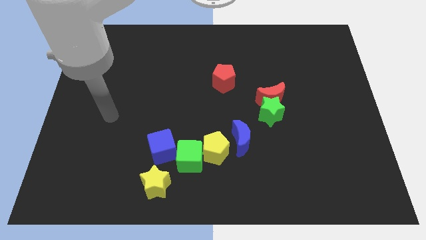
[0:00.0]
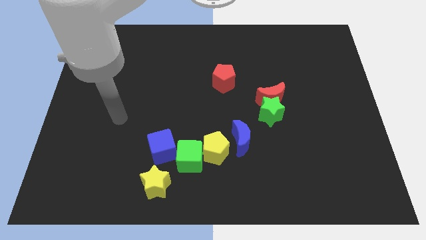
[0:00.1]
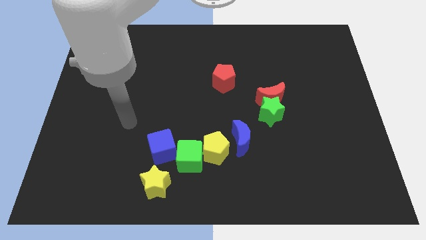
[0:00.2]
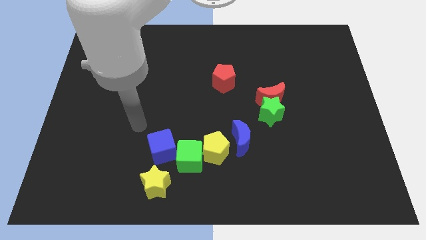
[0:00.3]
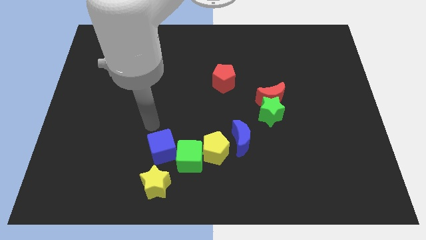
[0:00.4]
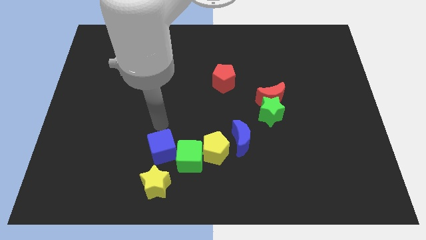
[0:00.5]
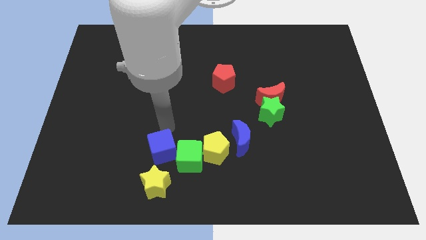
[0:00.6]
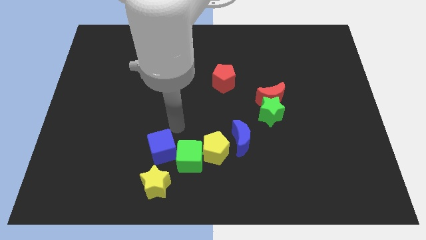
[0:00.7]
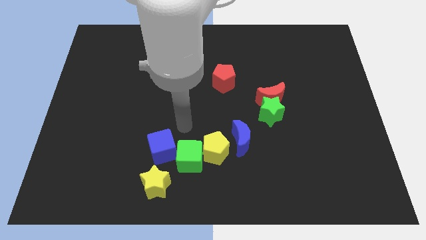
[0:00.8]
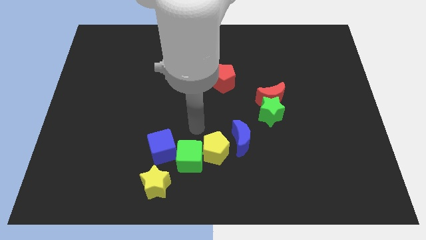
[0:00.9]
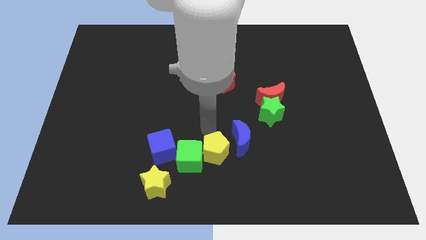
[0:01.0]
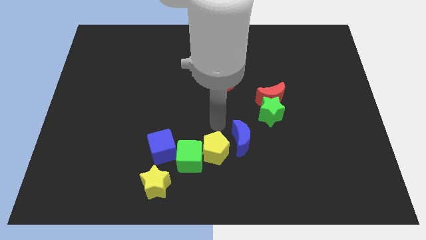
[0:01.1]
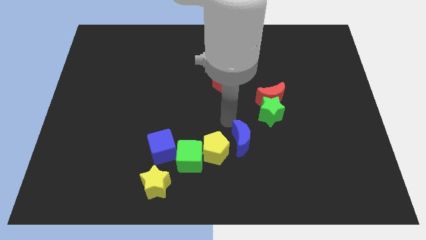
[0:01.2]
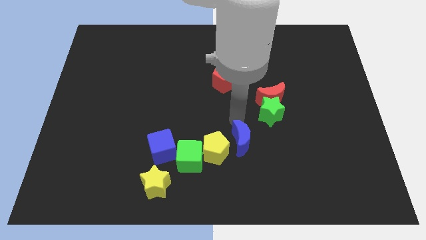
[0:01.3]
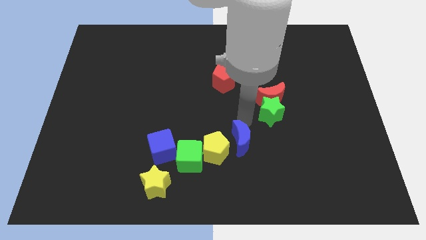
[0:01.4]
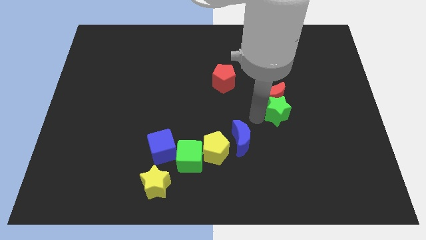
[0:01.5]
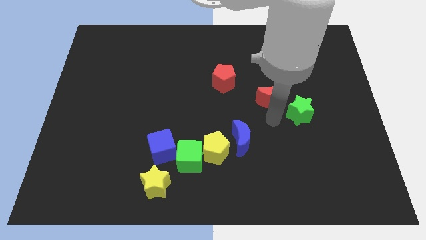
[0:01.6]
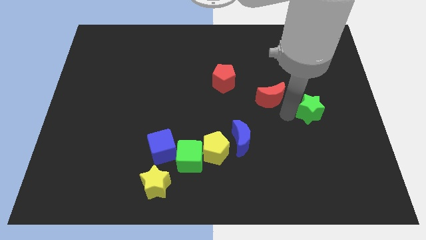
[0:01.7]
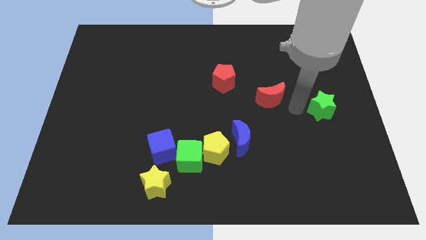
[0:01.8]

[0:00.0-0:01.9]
separate the red moon from the green star

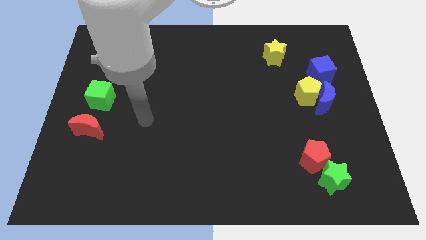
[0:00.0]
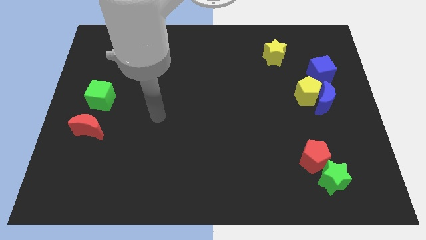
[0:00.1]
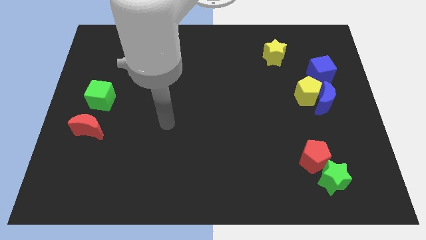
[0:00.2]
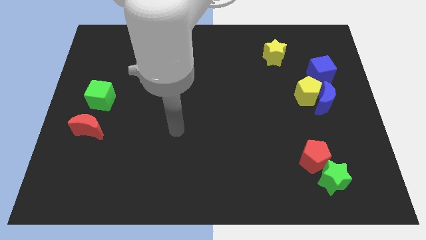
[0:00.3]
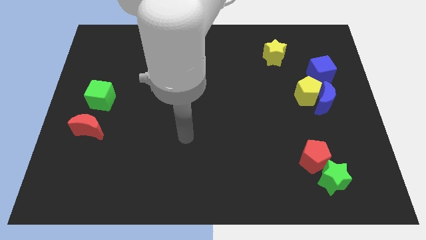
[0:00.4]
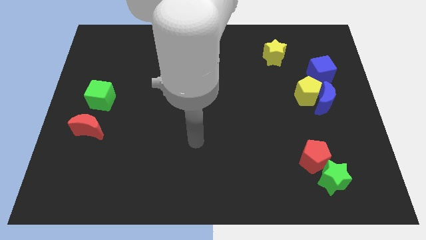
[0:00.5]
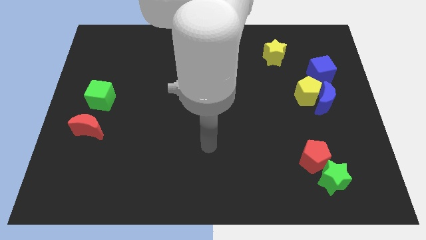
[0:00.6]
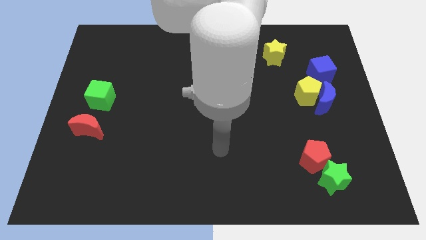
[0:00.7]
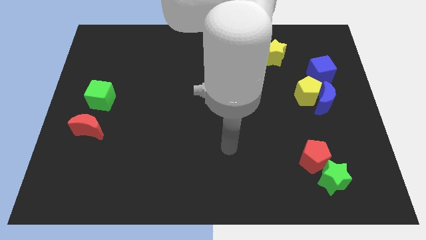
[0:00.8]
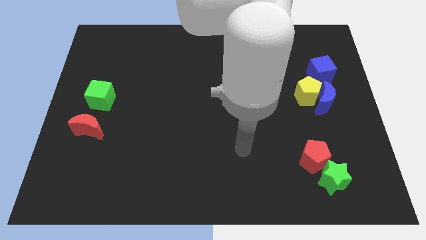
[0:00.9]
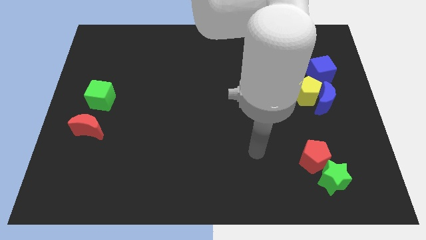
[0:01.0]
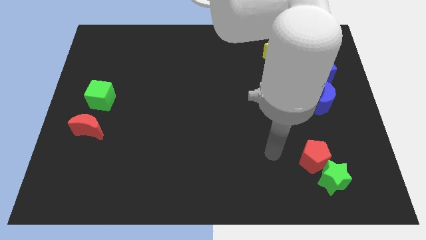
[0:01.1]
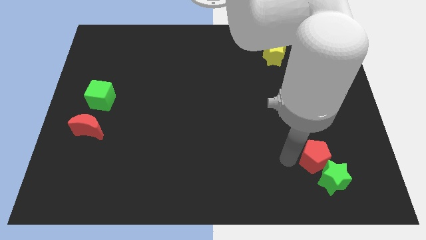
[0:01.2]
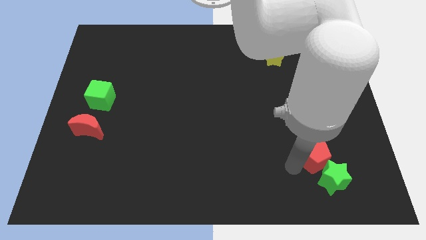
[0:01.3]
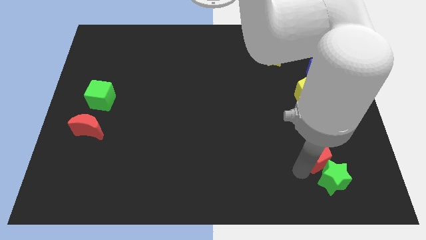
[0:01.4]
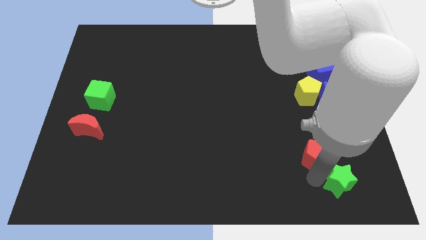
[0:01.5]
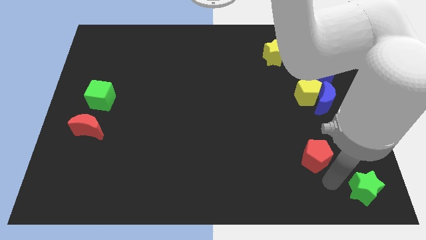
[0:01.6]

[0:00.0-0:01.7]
separate the red pentagon from the green star

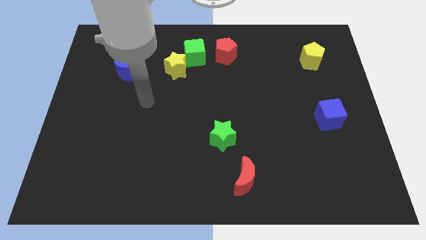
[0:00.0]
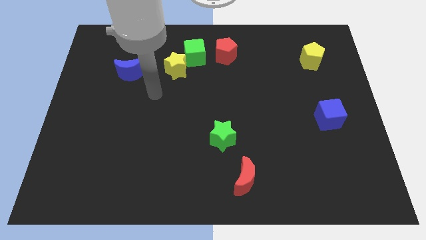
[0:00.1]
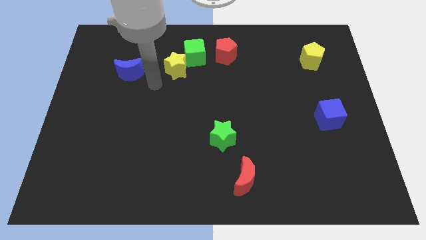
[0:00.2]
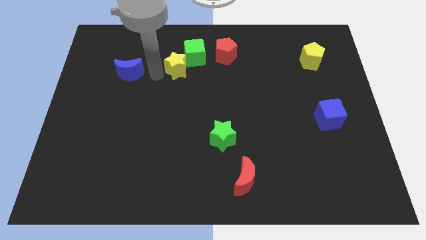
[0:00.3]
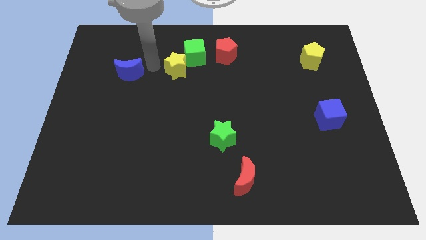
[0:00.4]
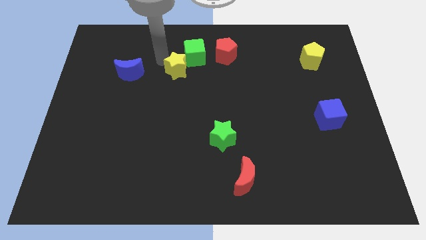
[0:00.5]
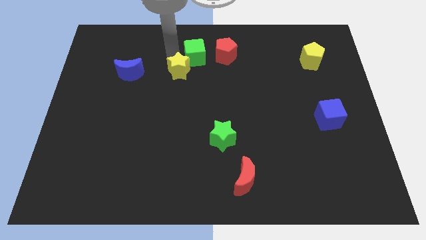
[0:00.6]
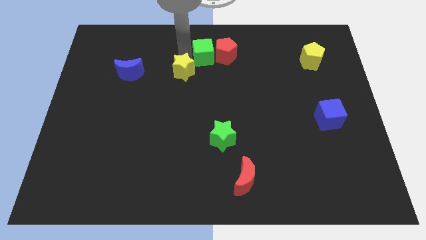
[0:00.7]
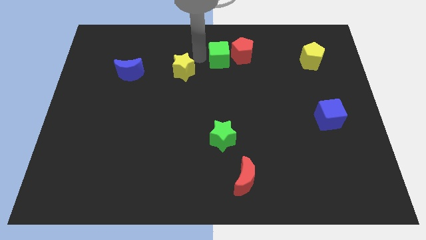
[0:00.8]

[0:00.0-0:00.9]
separate the yellow star from the green cube

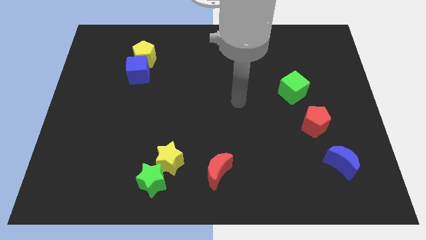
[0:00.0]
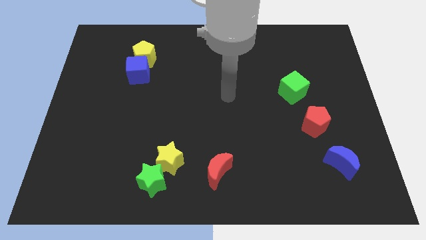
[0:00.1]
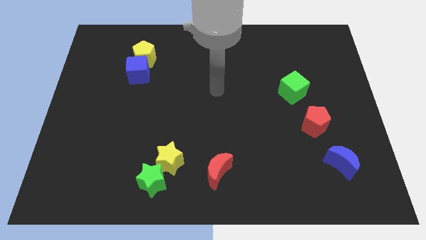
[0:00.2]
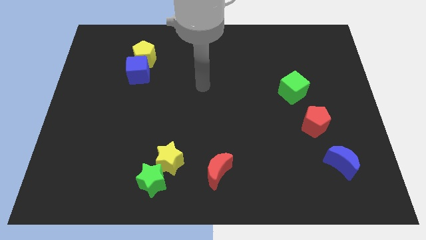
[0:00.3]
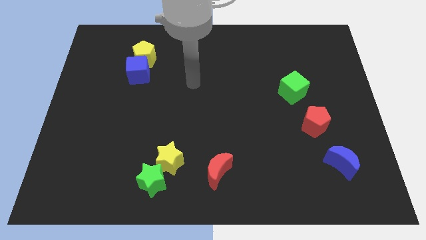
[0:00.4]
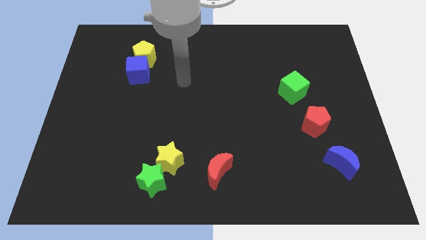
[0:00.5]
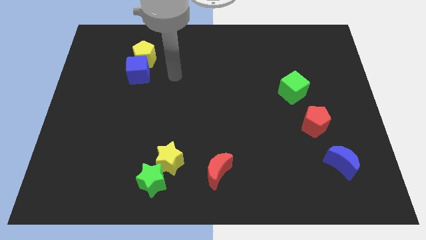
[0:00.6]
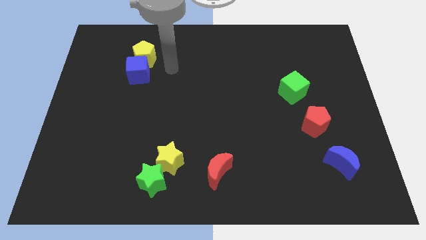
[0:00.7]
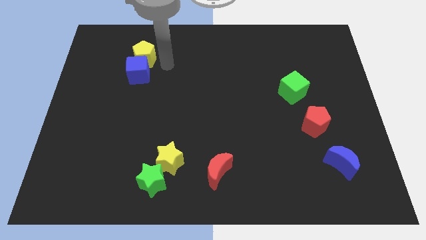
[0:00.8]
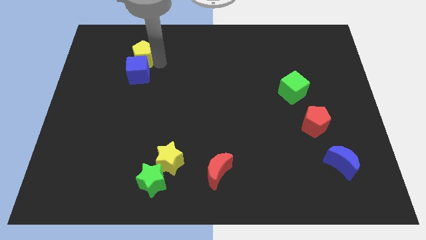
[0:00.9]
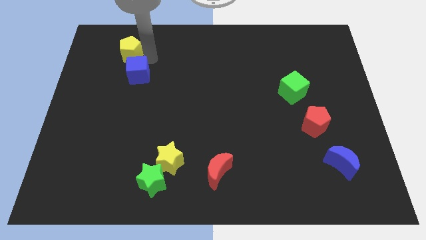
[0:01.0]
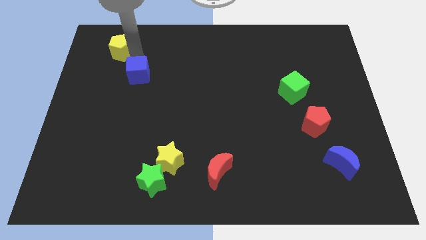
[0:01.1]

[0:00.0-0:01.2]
move the blue cube away from the yellow pentagon

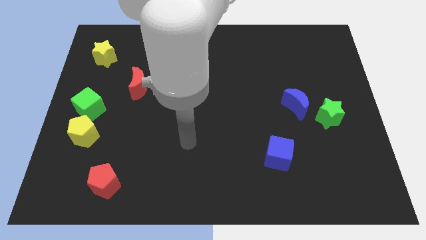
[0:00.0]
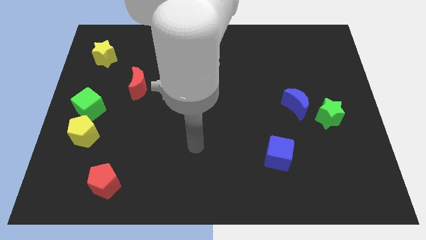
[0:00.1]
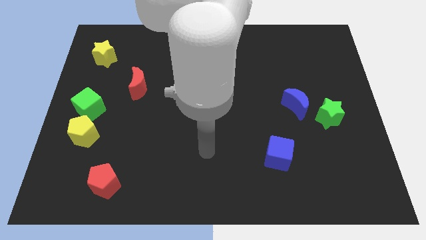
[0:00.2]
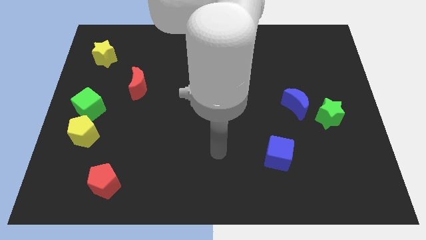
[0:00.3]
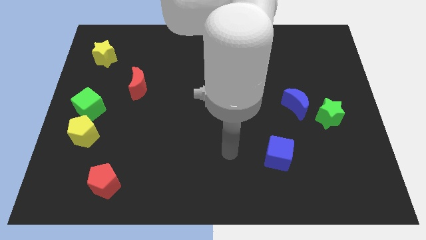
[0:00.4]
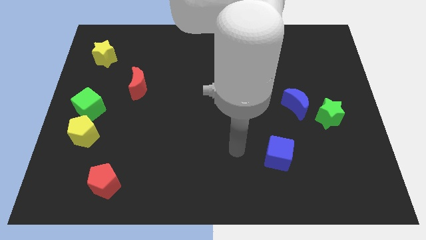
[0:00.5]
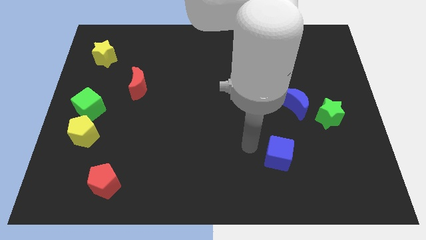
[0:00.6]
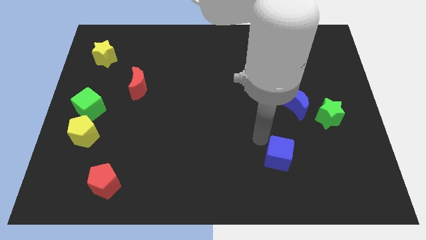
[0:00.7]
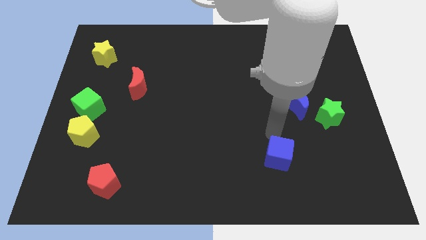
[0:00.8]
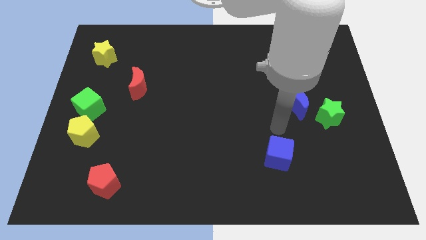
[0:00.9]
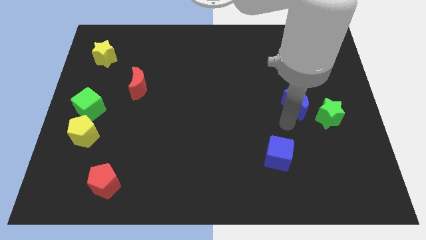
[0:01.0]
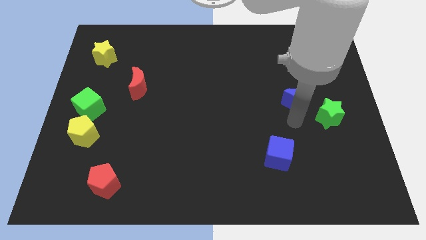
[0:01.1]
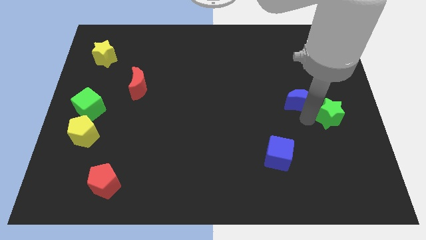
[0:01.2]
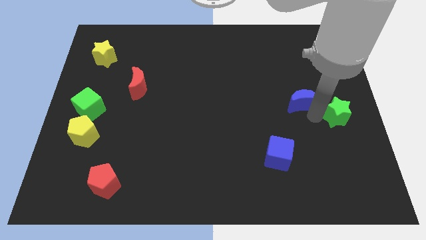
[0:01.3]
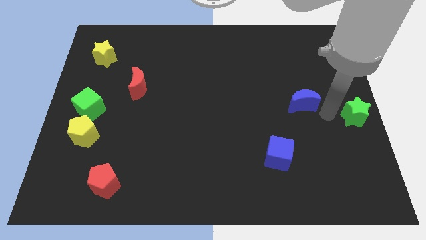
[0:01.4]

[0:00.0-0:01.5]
move the blue moon away from the green star

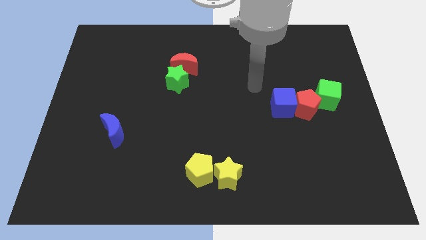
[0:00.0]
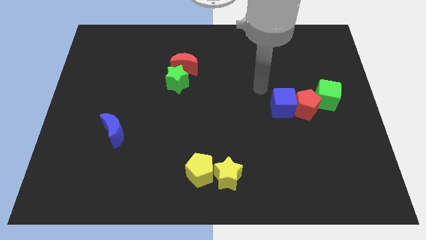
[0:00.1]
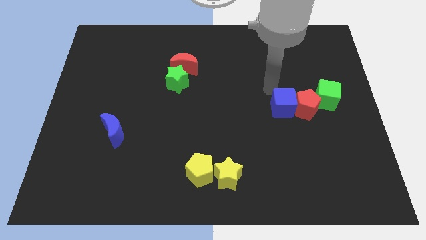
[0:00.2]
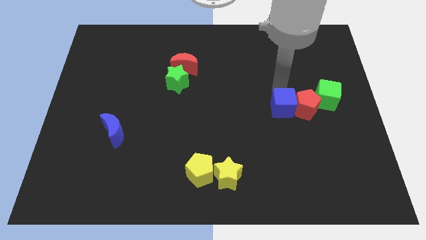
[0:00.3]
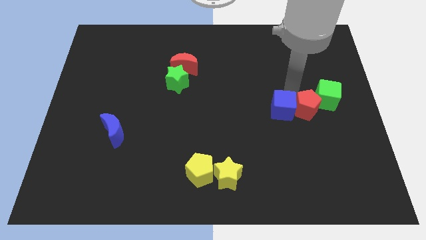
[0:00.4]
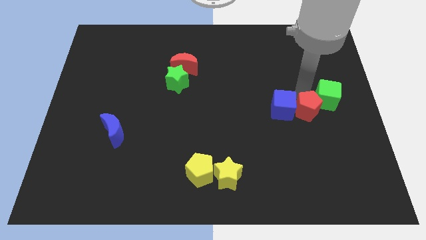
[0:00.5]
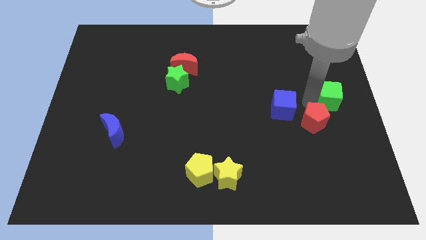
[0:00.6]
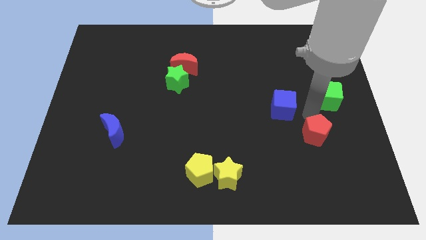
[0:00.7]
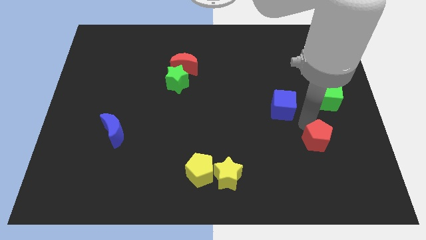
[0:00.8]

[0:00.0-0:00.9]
separate the blue cube from the red pentagon

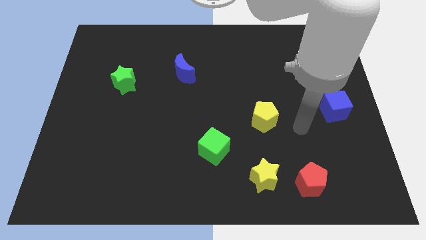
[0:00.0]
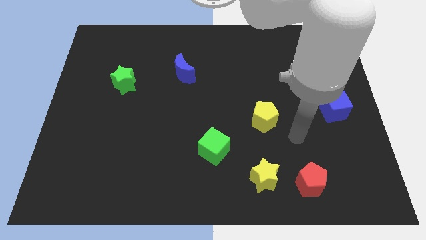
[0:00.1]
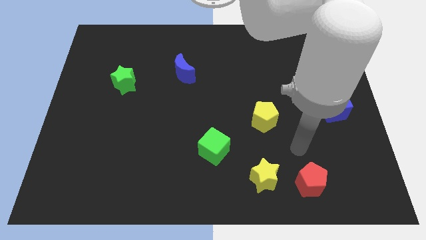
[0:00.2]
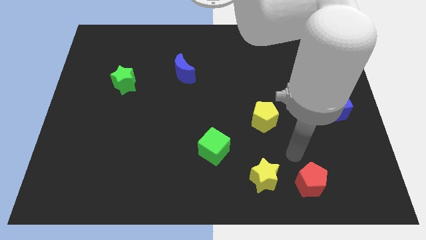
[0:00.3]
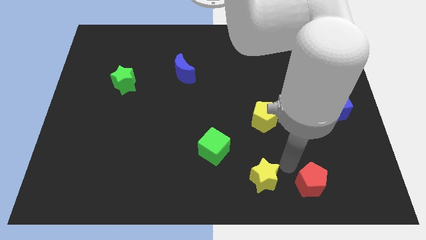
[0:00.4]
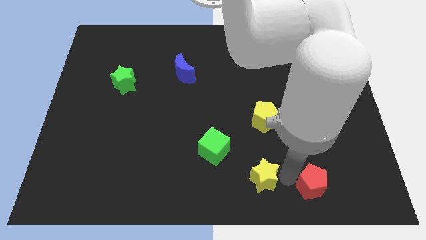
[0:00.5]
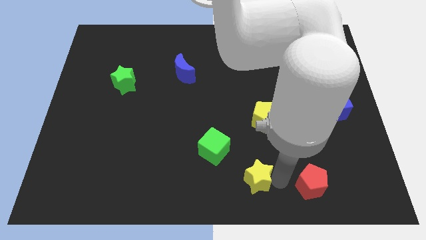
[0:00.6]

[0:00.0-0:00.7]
separate the red pentagon from the yellow star

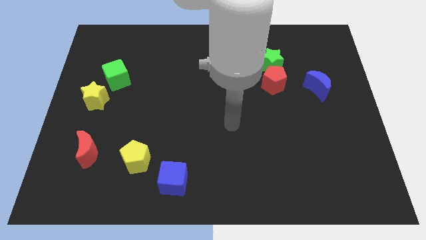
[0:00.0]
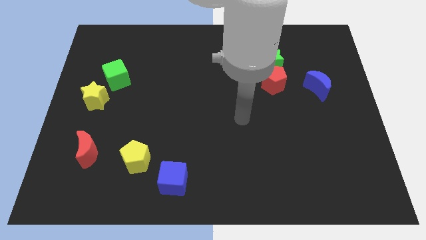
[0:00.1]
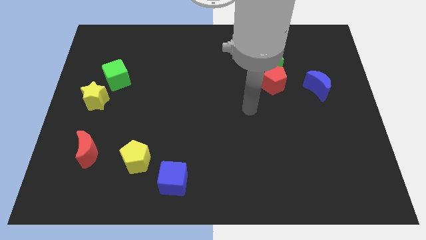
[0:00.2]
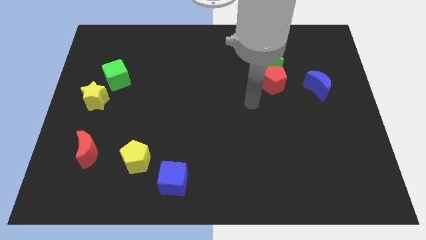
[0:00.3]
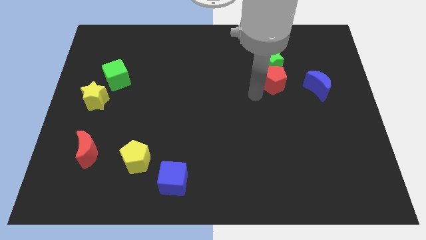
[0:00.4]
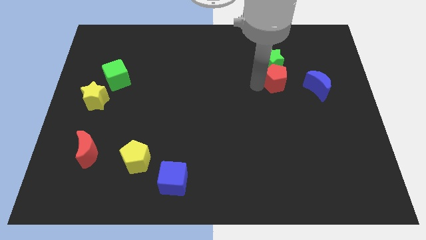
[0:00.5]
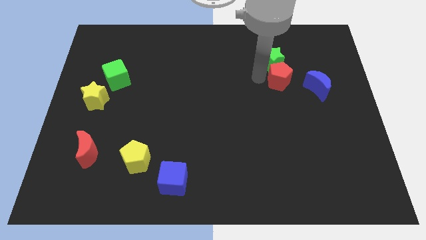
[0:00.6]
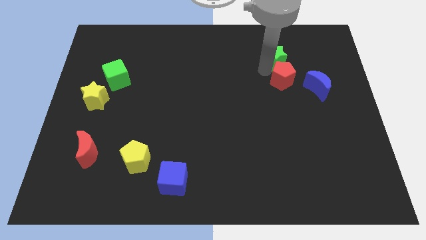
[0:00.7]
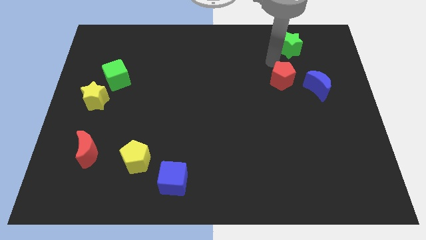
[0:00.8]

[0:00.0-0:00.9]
pull the red pentagon apart from the green star
